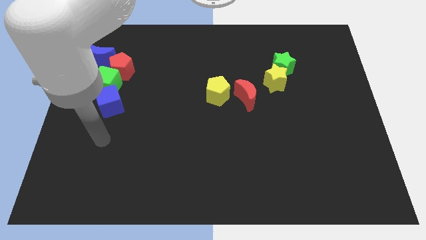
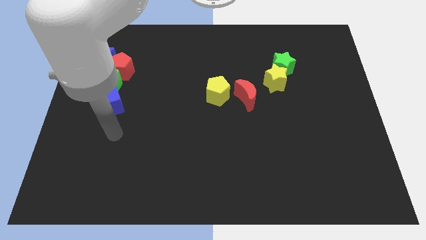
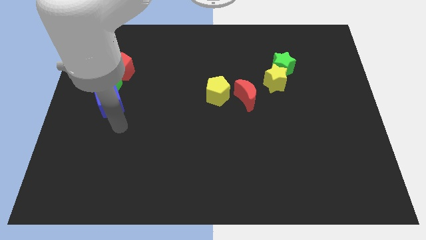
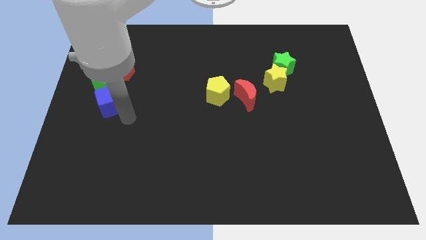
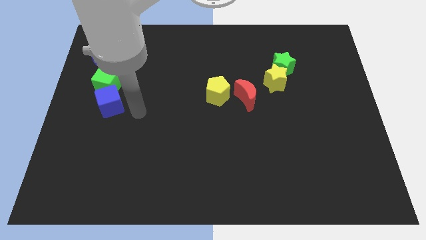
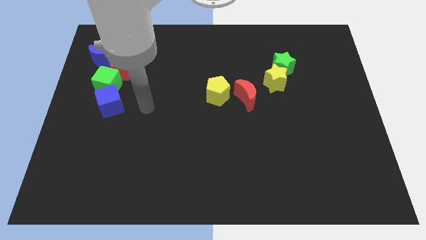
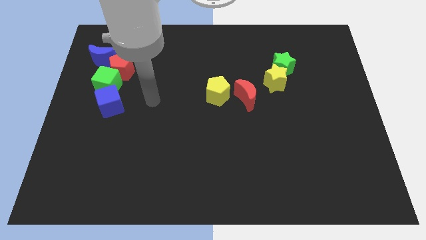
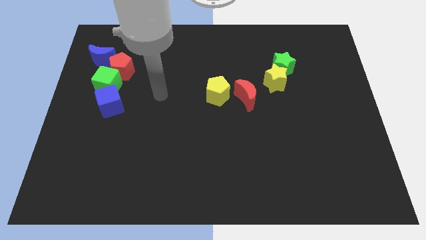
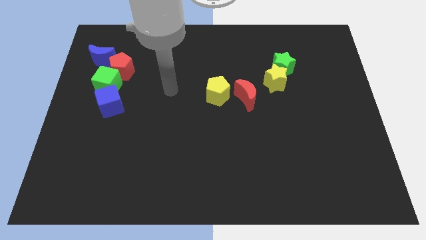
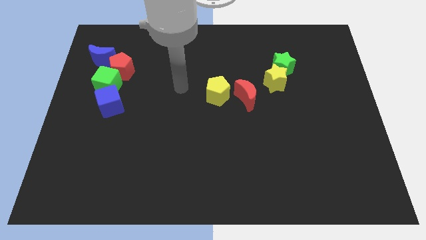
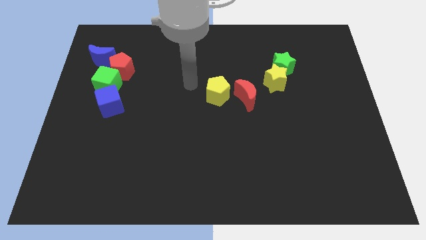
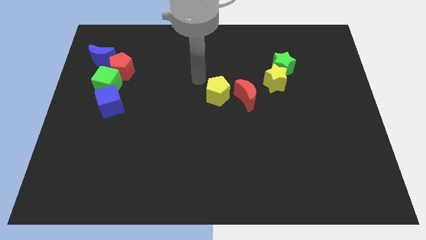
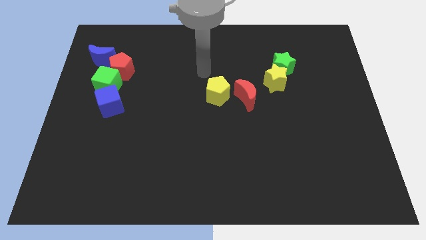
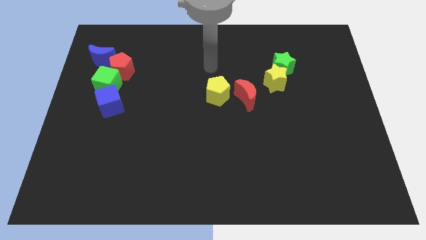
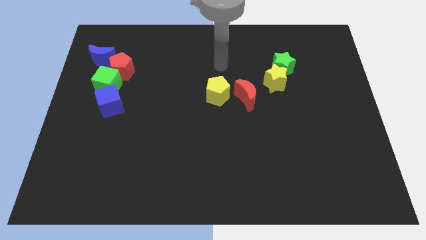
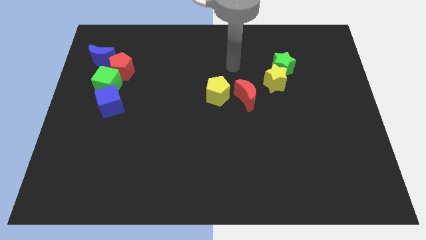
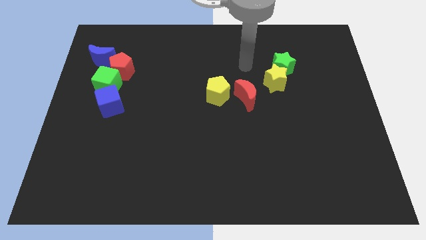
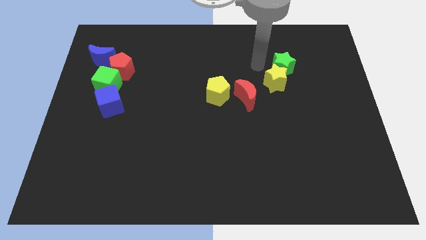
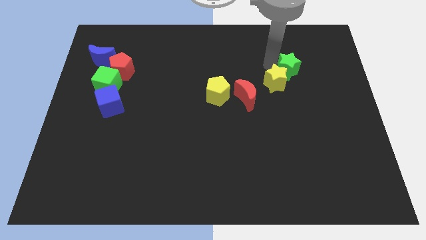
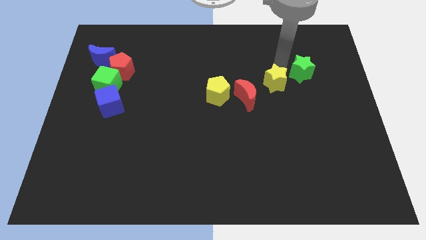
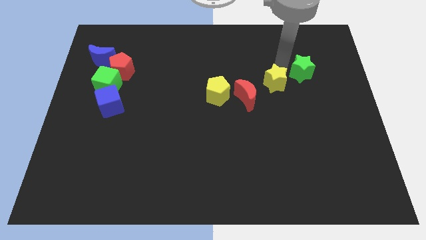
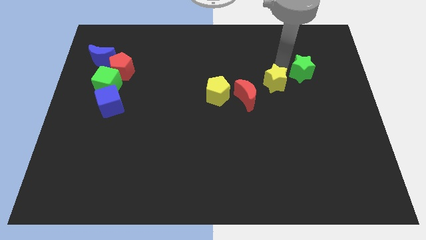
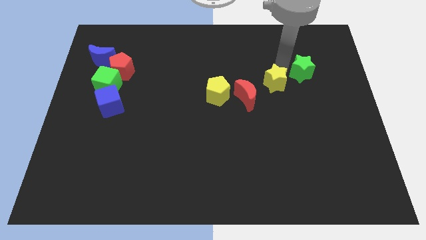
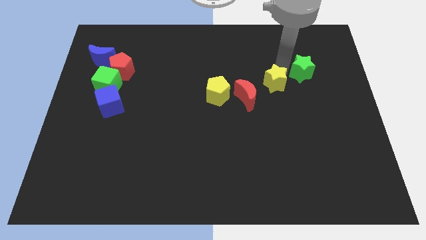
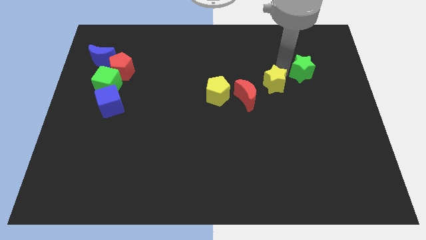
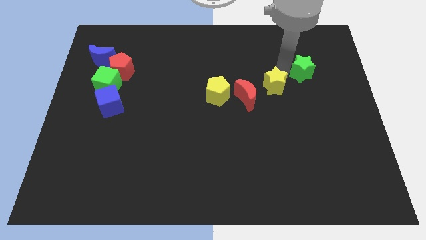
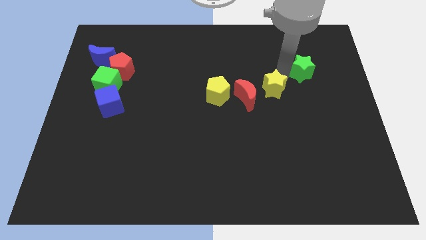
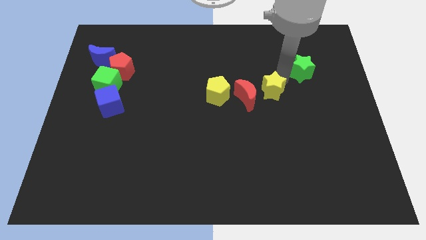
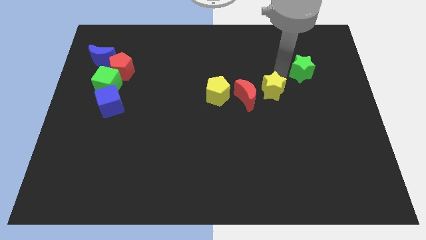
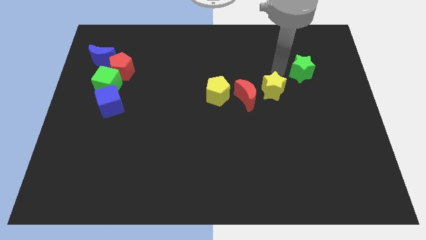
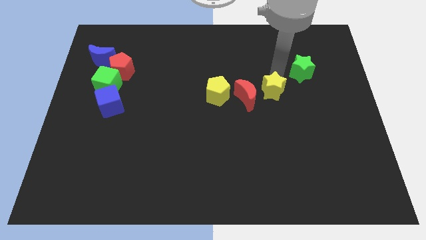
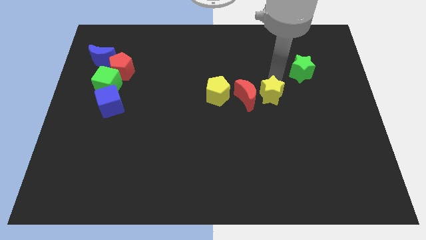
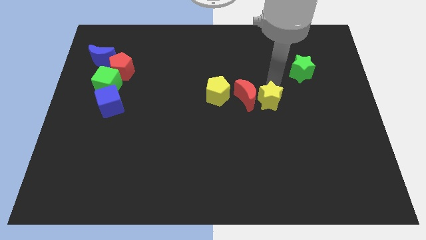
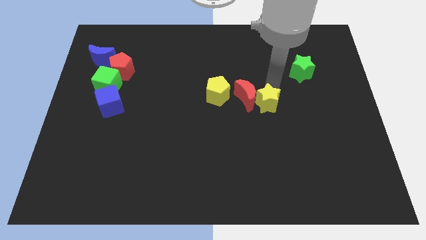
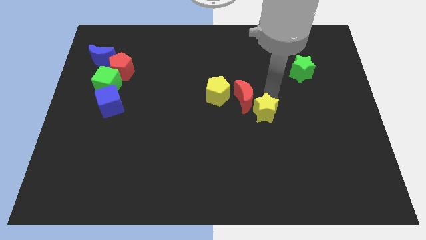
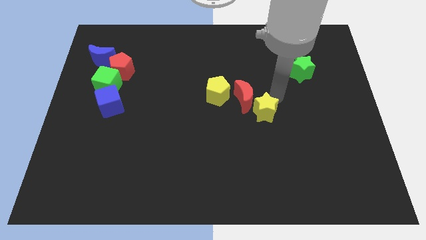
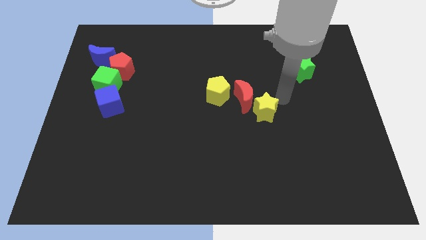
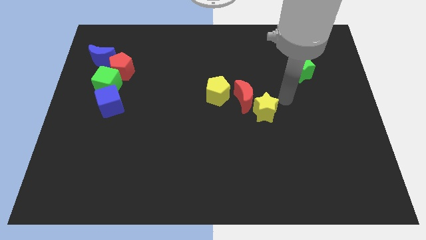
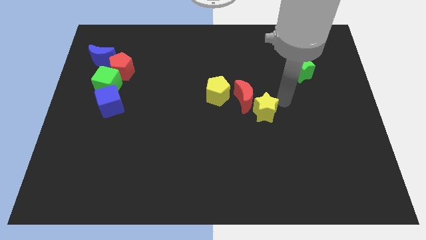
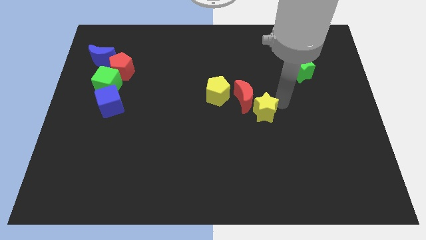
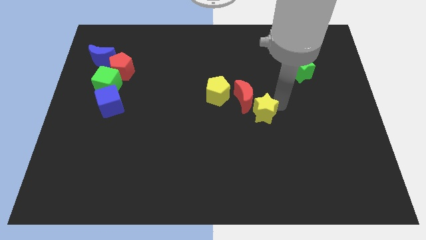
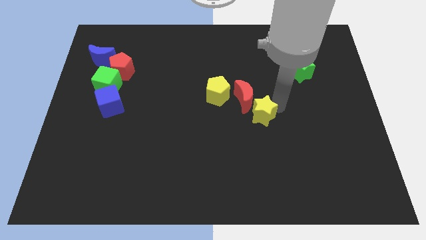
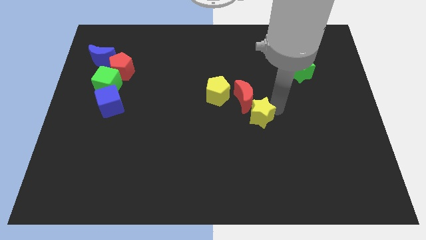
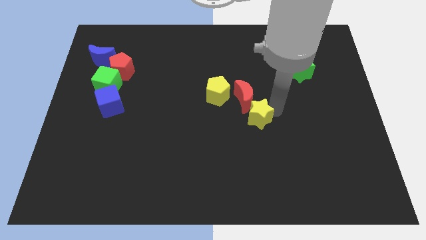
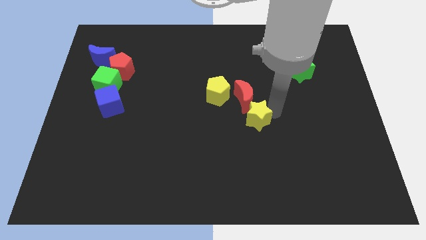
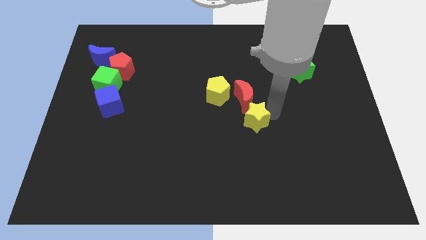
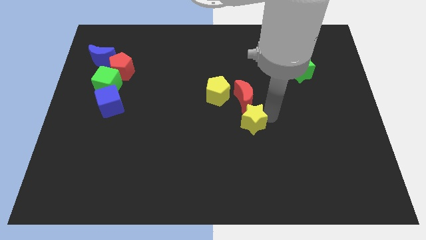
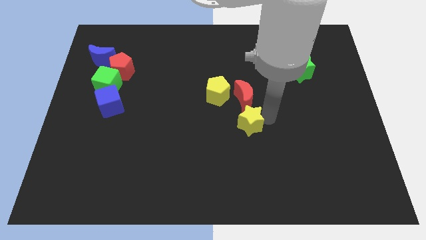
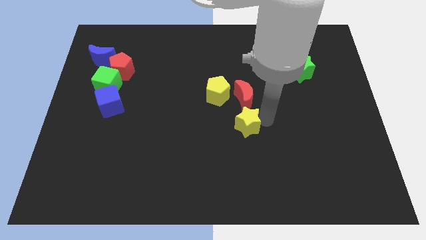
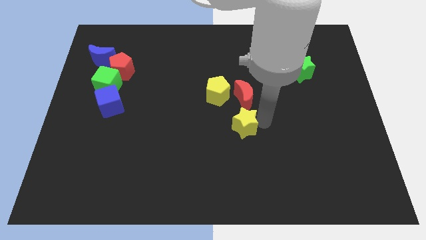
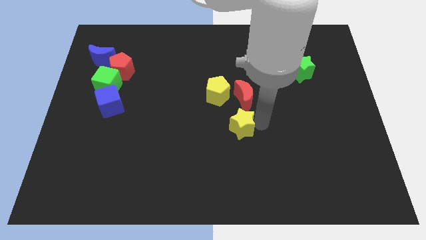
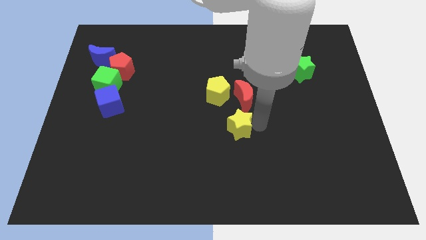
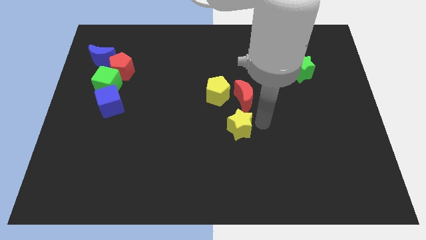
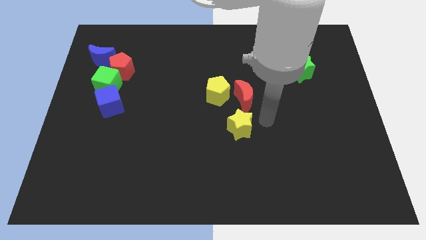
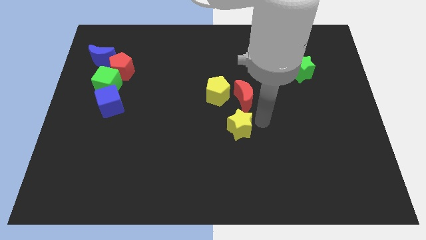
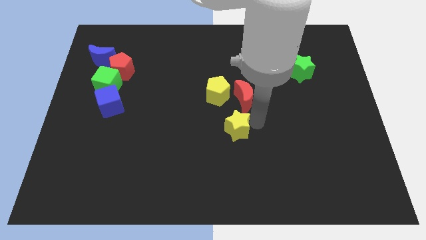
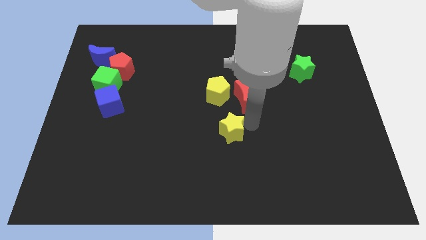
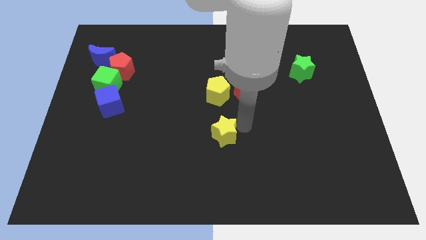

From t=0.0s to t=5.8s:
push the yellow star down and to the left

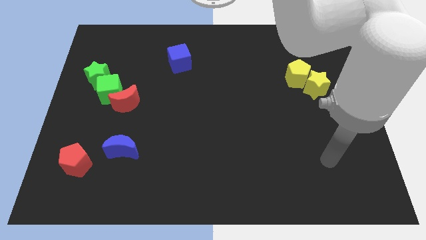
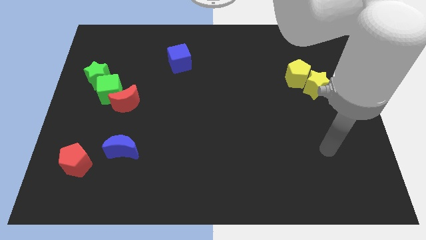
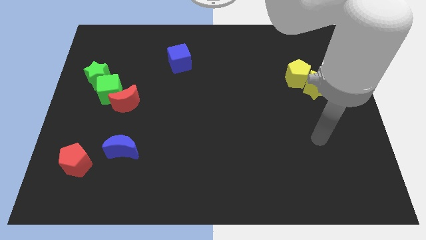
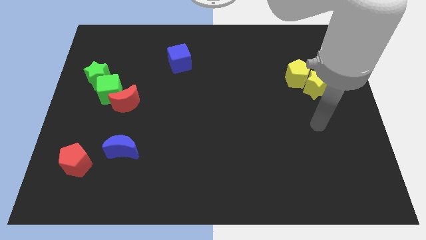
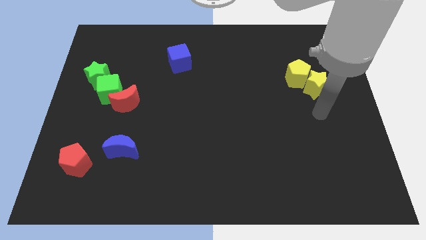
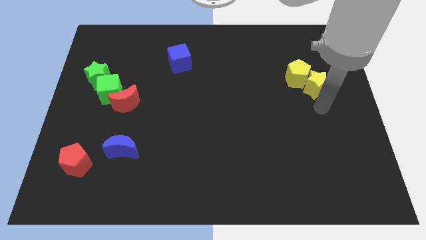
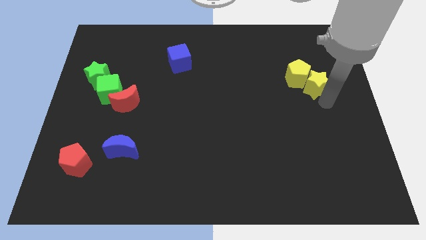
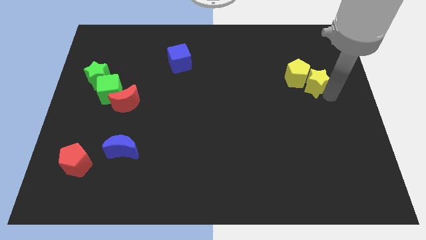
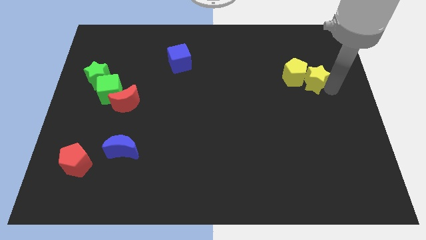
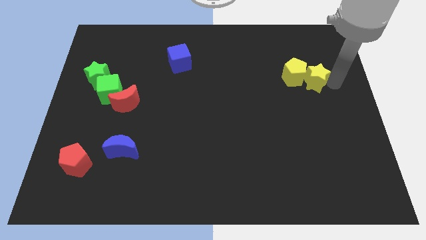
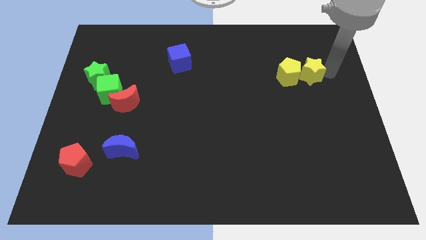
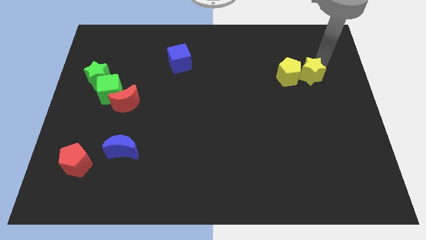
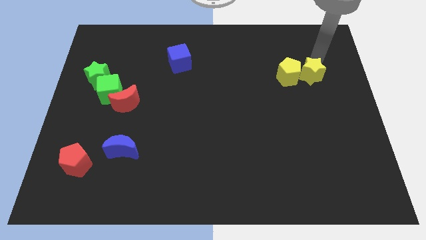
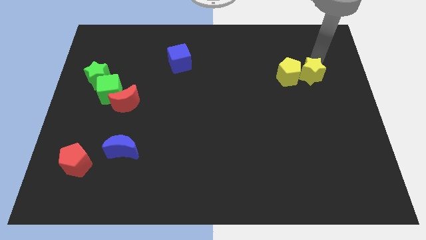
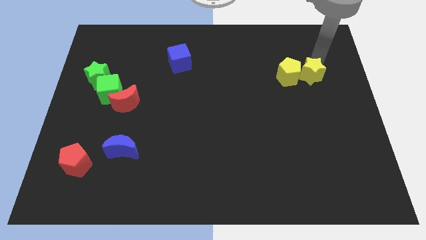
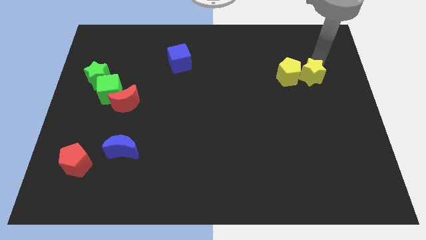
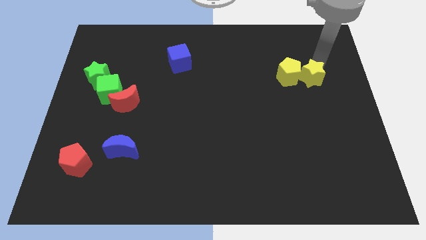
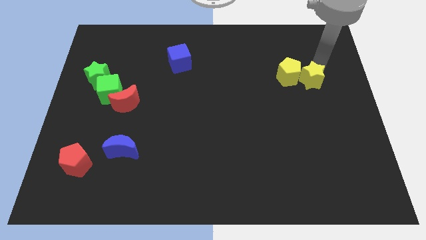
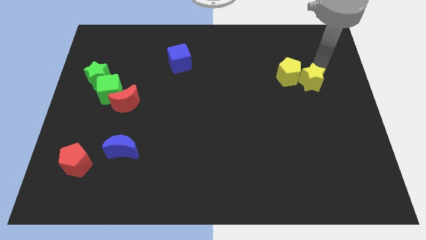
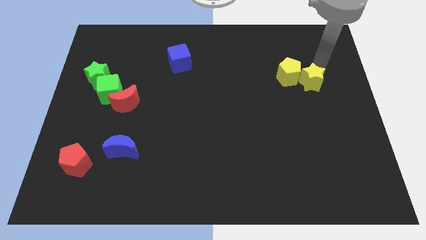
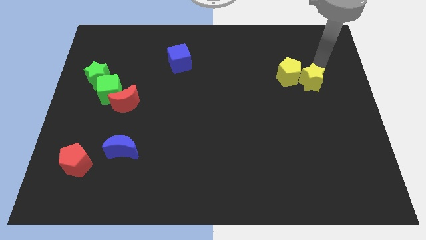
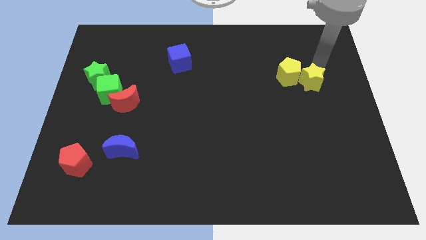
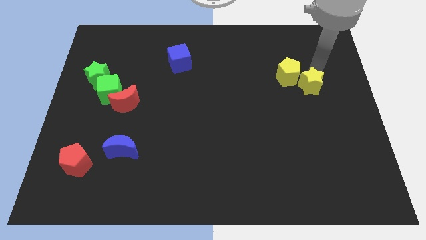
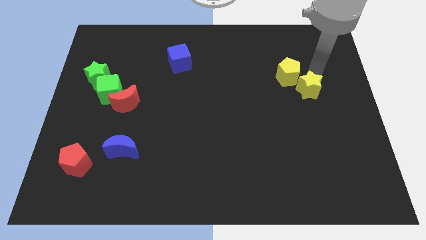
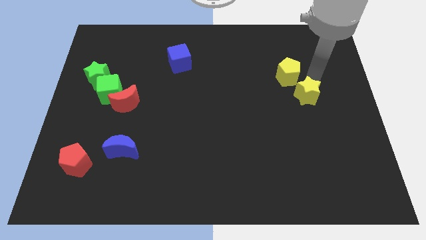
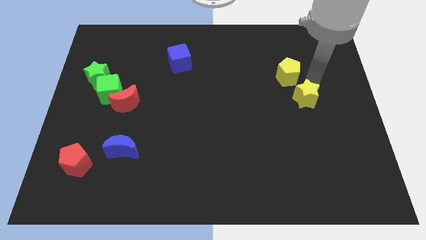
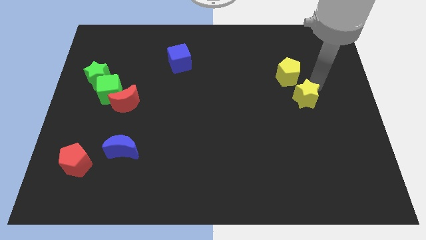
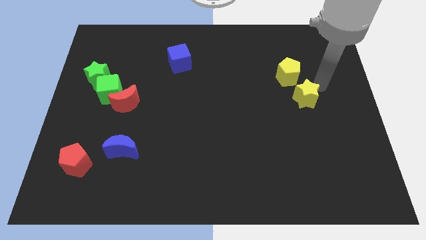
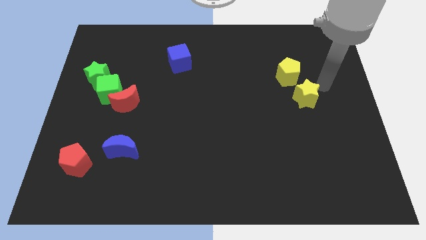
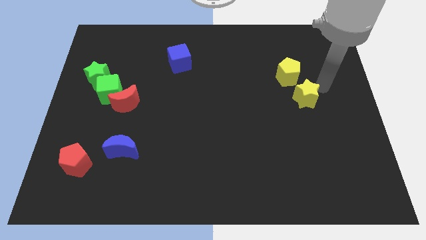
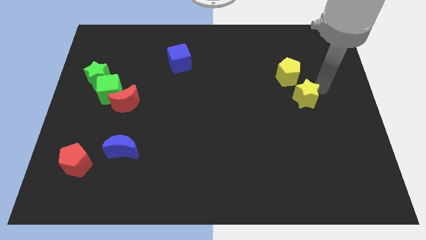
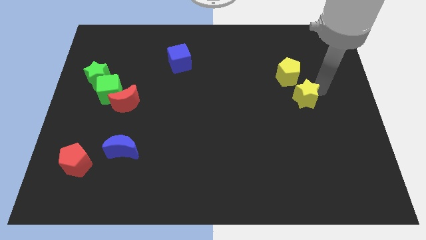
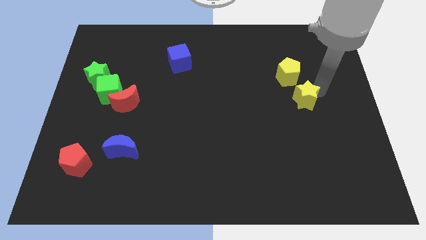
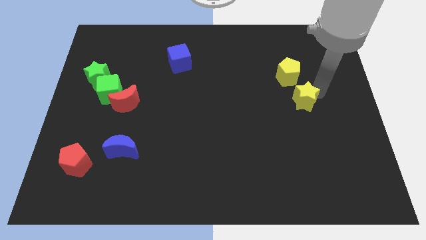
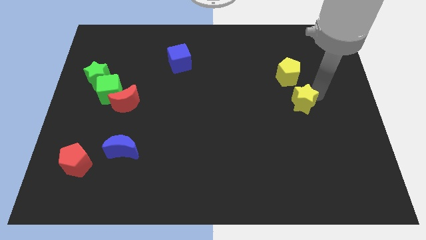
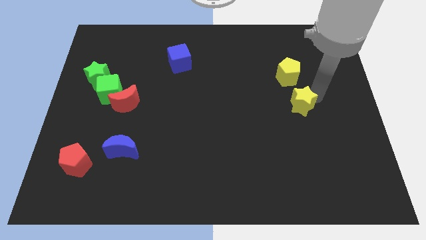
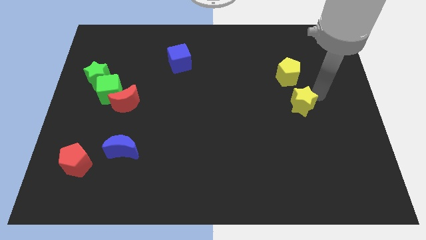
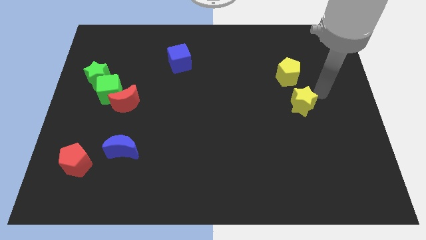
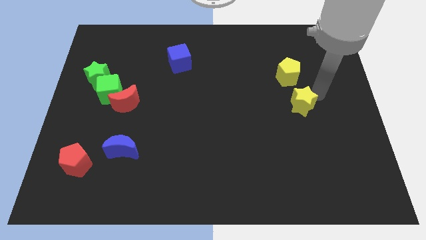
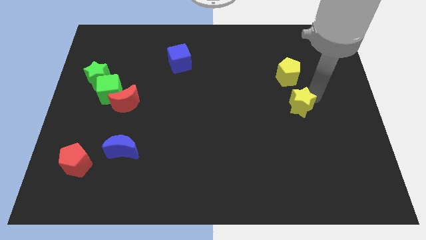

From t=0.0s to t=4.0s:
move the yellow star somewhat downwards and then left
